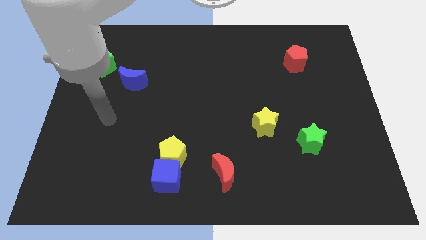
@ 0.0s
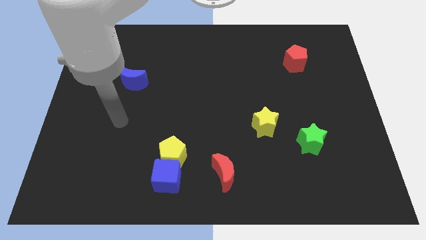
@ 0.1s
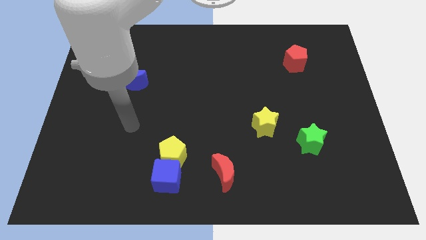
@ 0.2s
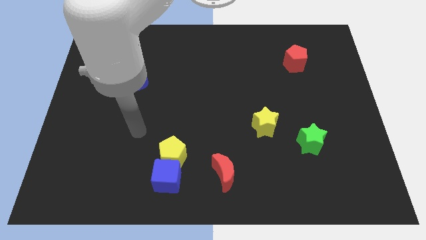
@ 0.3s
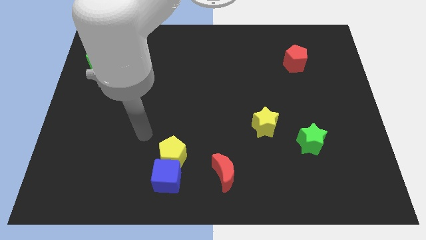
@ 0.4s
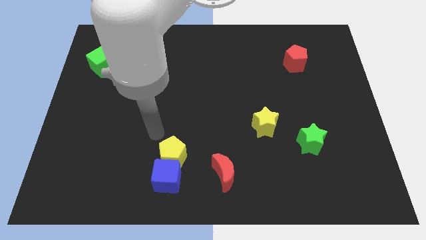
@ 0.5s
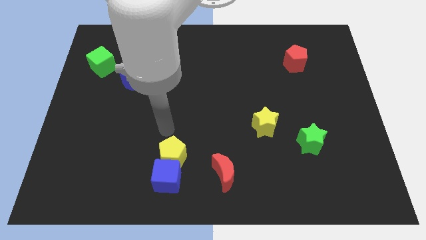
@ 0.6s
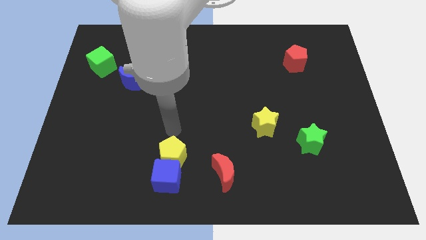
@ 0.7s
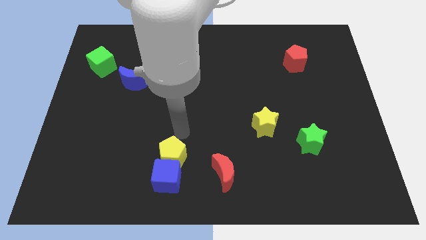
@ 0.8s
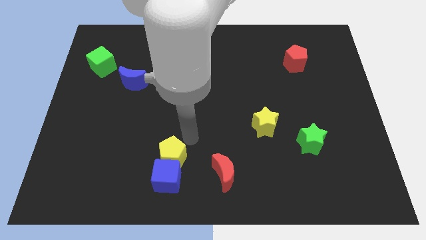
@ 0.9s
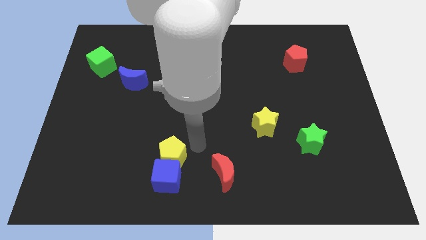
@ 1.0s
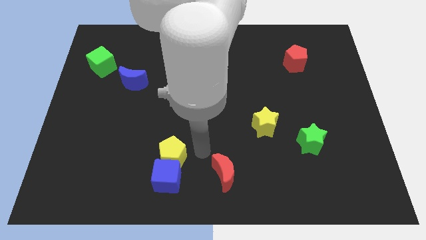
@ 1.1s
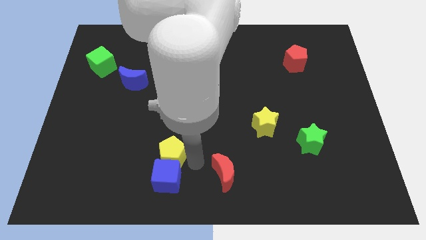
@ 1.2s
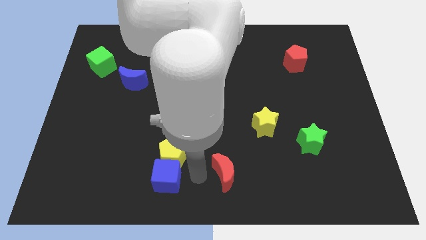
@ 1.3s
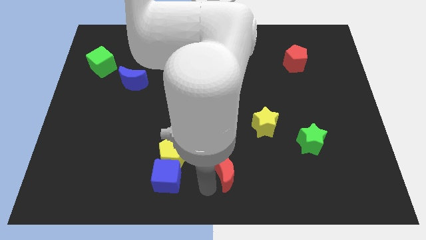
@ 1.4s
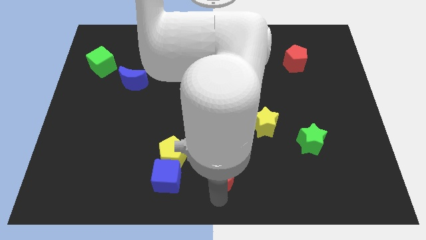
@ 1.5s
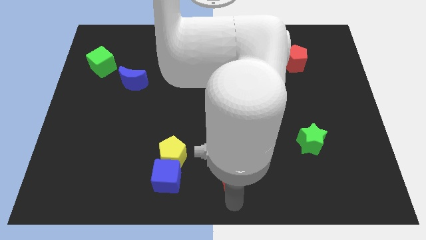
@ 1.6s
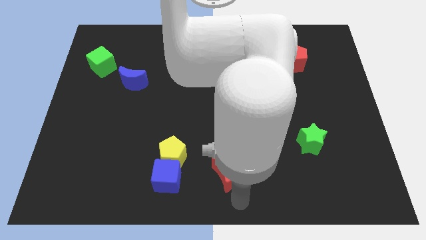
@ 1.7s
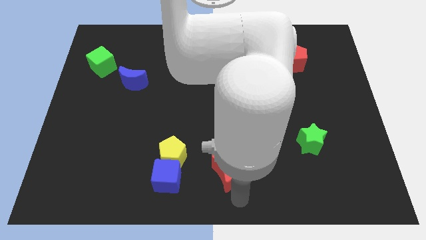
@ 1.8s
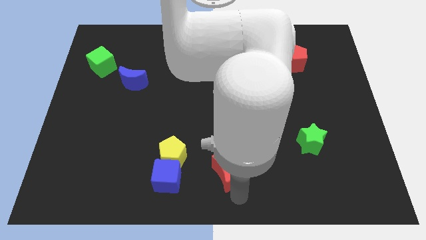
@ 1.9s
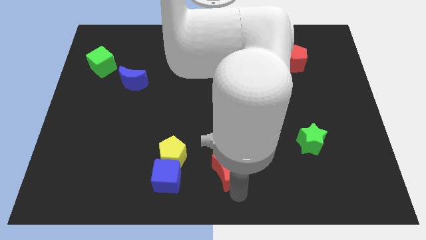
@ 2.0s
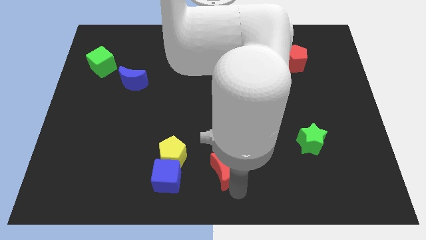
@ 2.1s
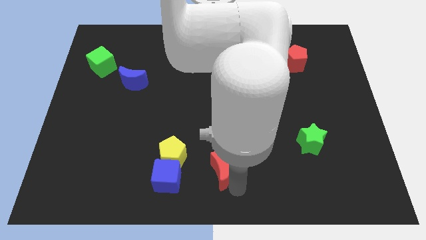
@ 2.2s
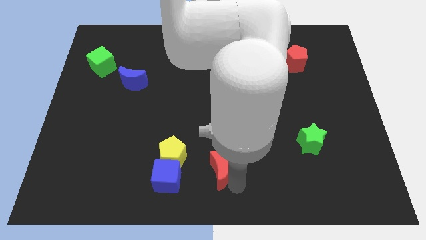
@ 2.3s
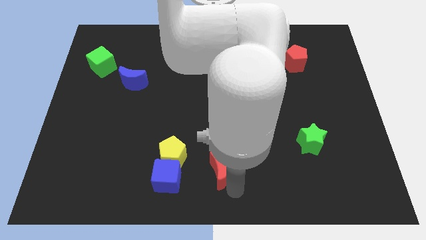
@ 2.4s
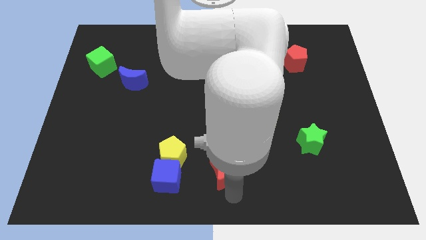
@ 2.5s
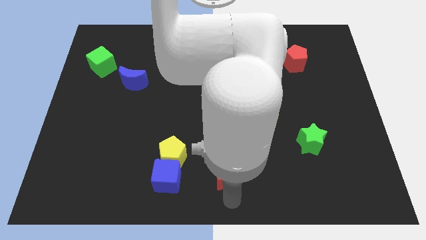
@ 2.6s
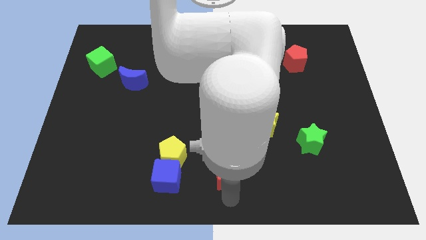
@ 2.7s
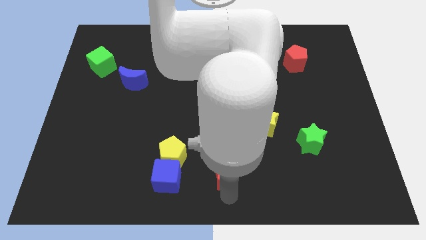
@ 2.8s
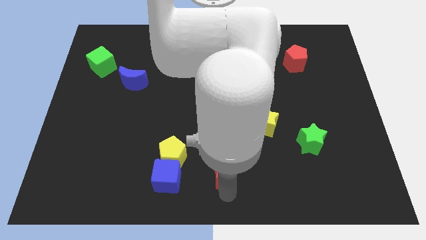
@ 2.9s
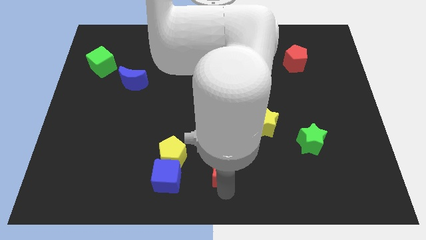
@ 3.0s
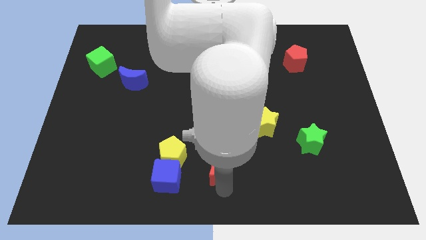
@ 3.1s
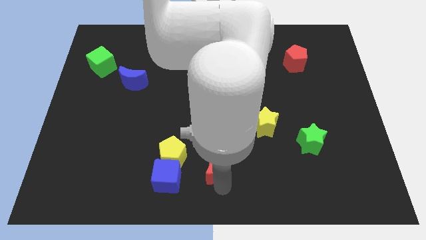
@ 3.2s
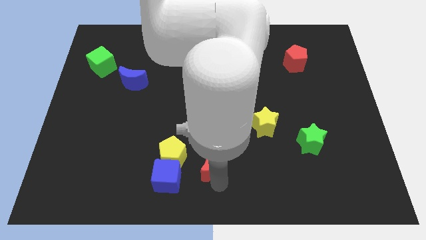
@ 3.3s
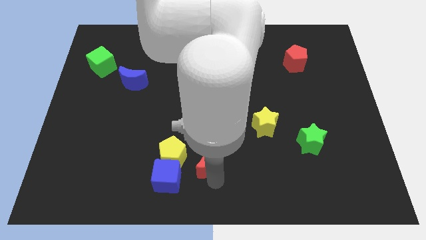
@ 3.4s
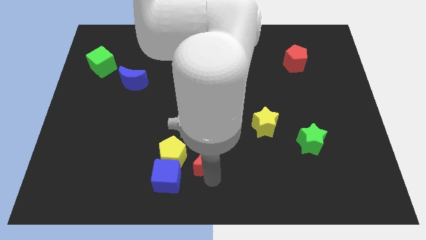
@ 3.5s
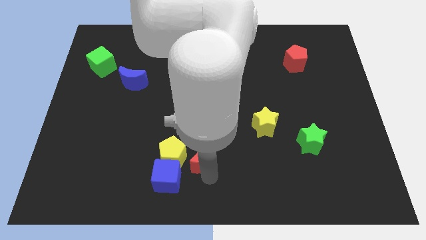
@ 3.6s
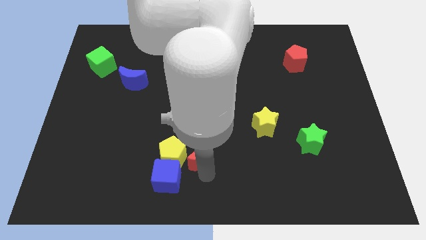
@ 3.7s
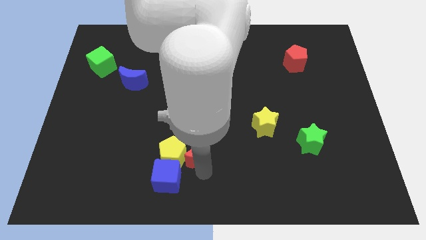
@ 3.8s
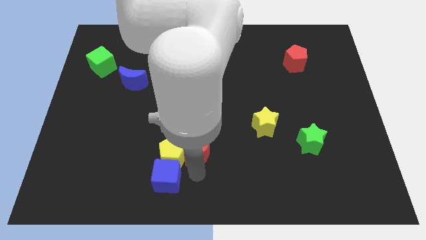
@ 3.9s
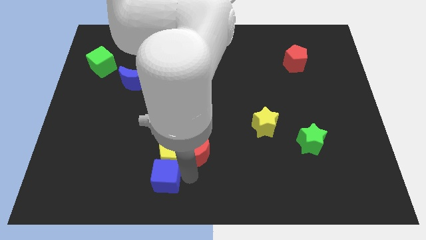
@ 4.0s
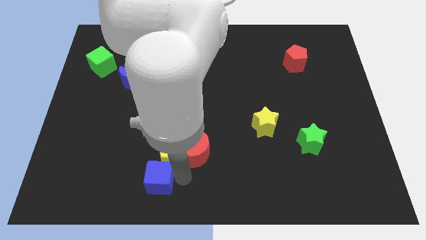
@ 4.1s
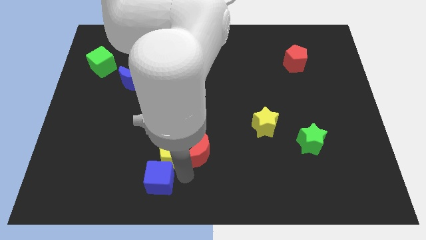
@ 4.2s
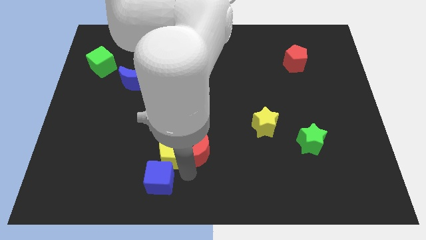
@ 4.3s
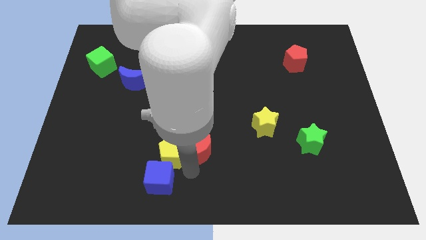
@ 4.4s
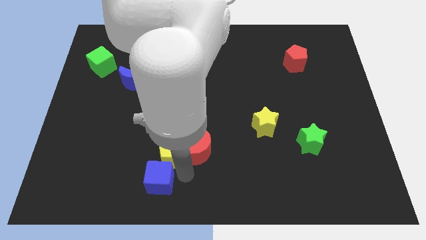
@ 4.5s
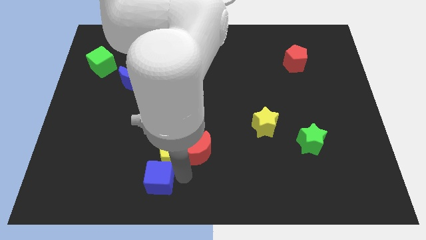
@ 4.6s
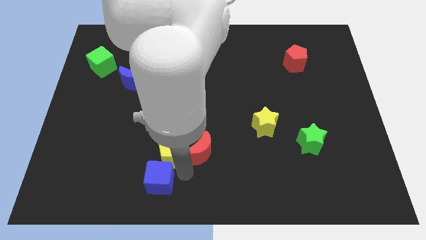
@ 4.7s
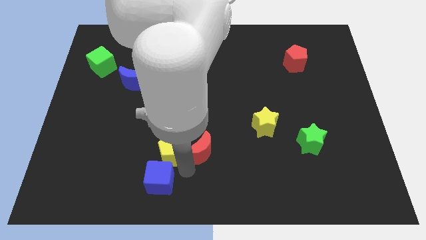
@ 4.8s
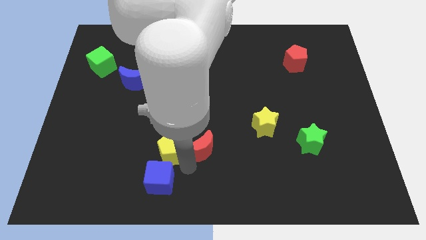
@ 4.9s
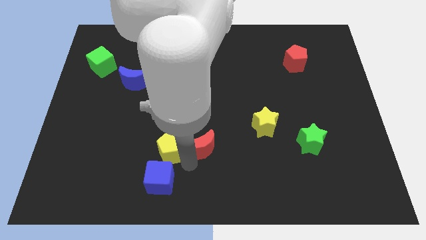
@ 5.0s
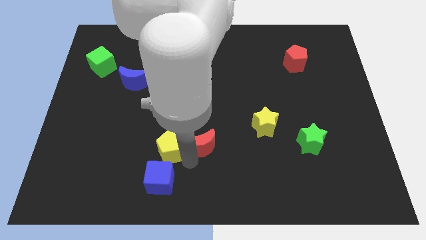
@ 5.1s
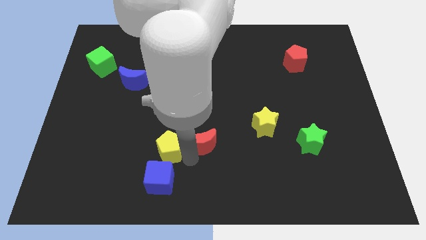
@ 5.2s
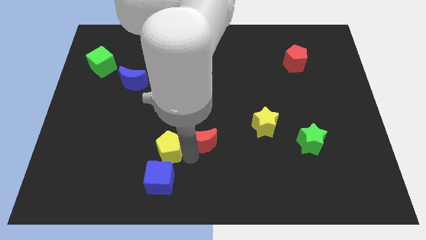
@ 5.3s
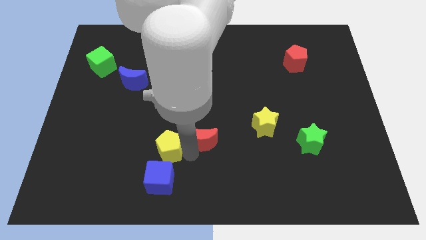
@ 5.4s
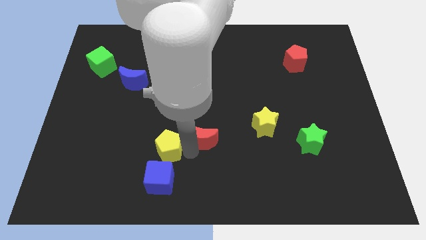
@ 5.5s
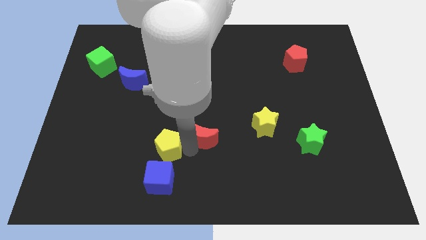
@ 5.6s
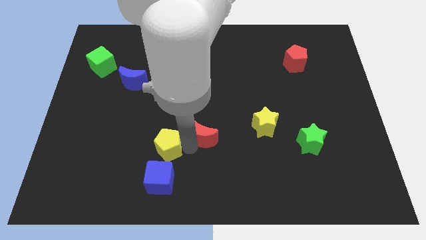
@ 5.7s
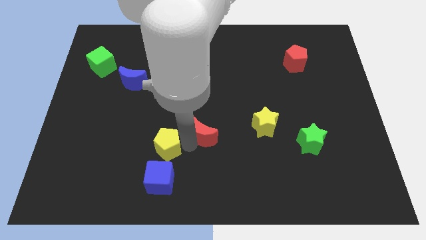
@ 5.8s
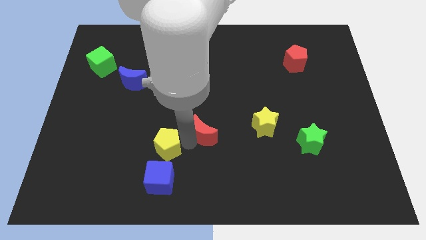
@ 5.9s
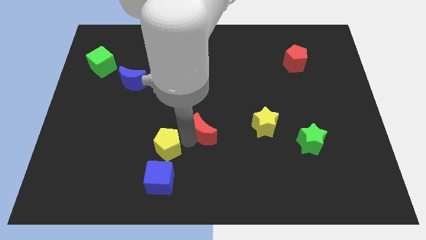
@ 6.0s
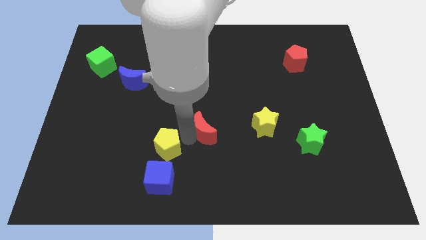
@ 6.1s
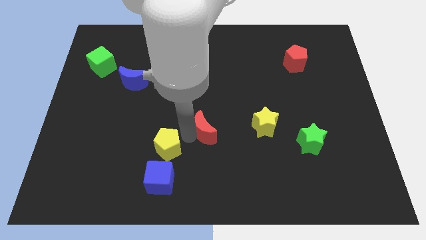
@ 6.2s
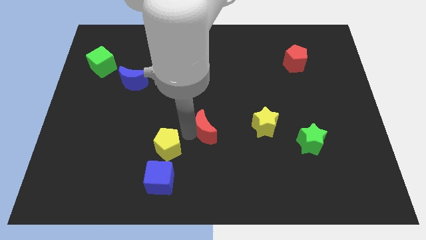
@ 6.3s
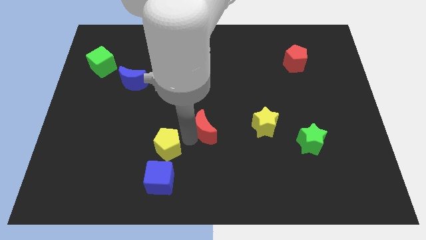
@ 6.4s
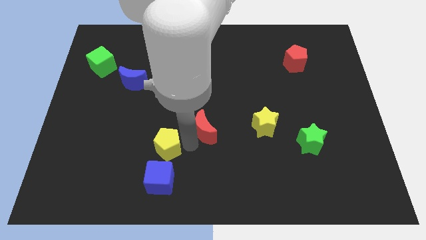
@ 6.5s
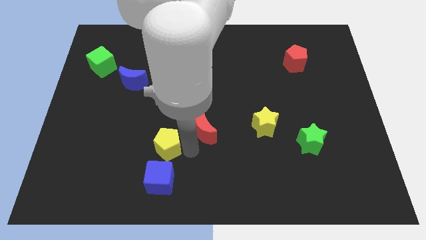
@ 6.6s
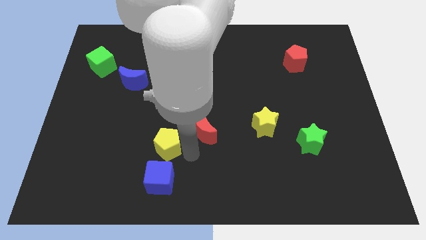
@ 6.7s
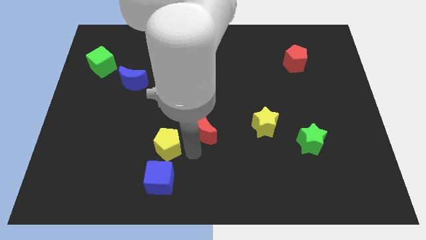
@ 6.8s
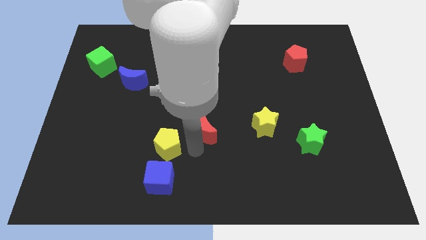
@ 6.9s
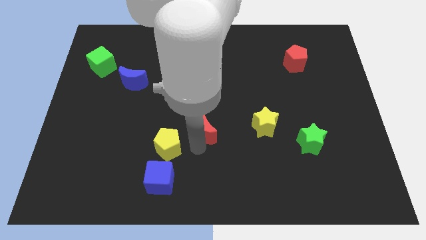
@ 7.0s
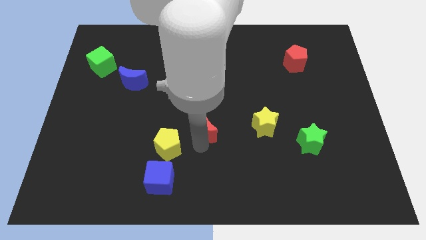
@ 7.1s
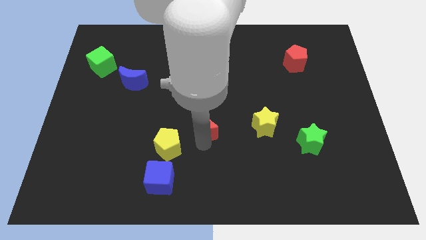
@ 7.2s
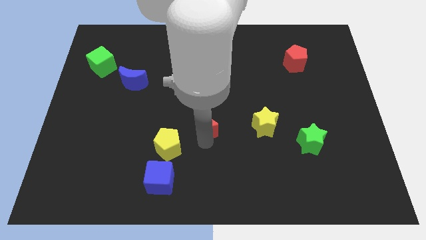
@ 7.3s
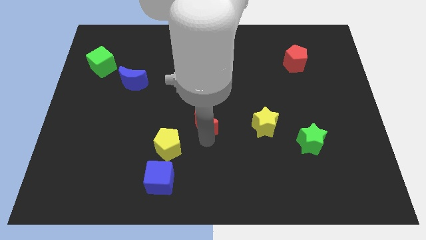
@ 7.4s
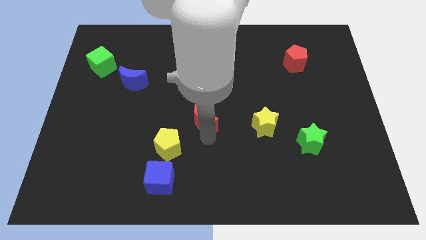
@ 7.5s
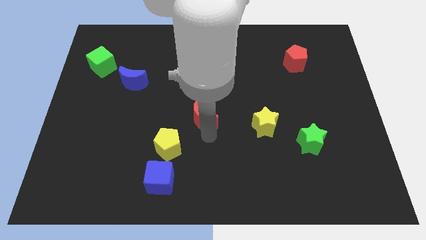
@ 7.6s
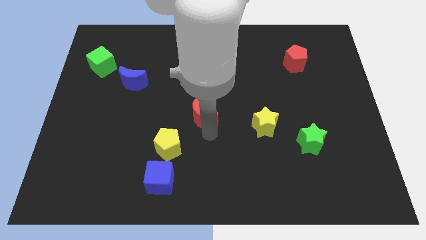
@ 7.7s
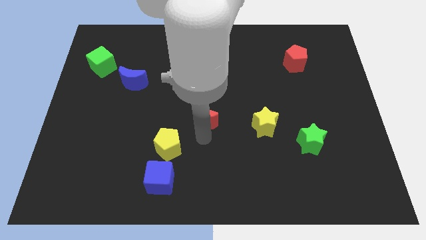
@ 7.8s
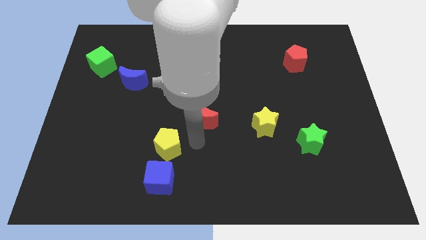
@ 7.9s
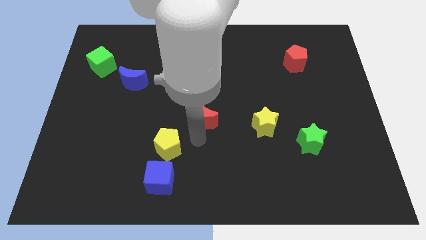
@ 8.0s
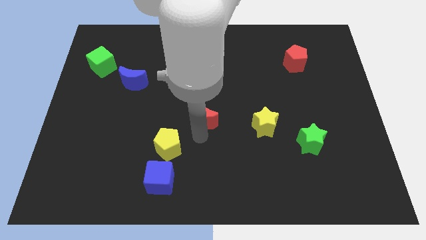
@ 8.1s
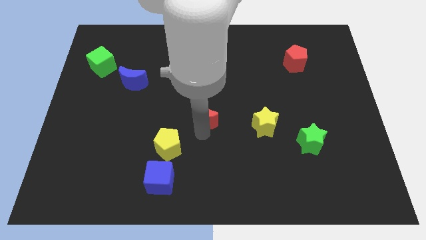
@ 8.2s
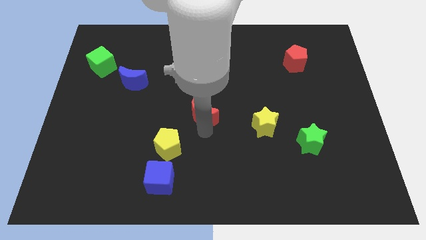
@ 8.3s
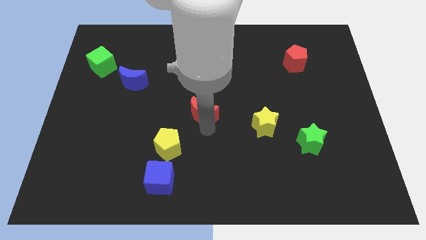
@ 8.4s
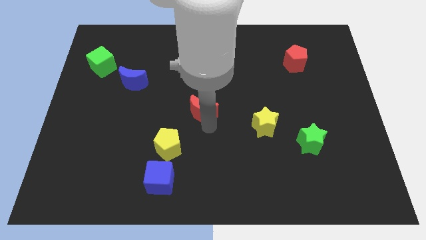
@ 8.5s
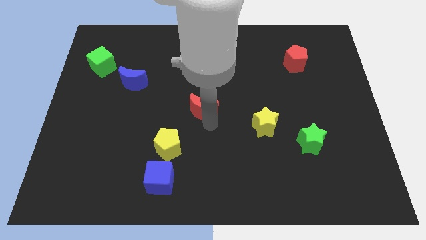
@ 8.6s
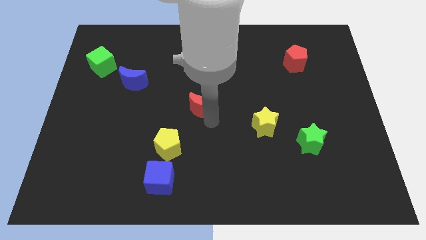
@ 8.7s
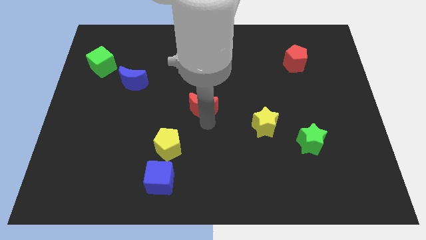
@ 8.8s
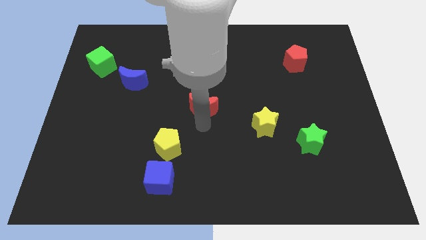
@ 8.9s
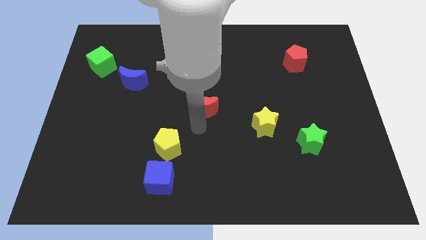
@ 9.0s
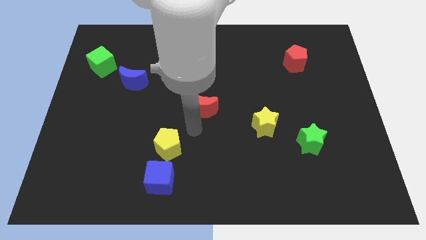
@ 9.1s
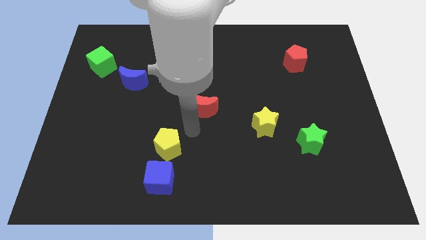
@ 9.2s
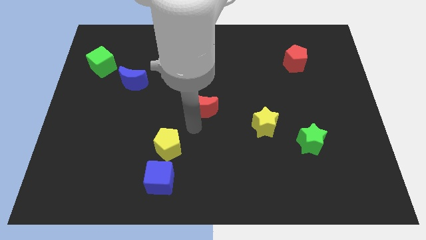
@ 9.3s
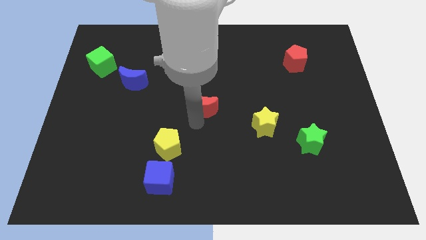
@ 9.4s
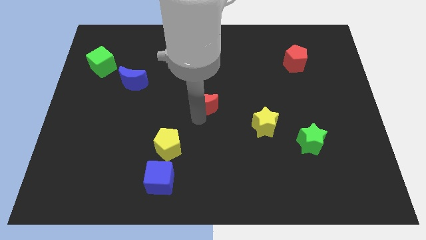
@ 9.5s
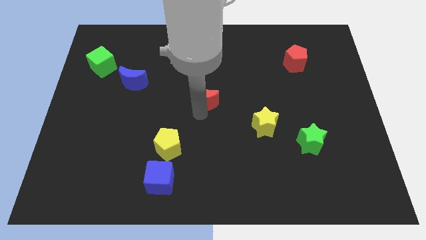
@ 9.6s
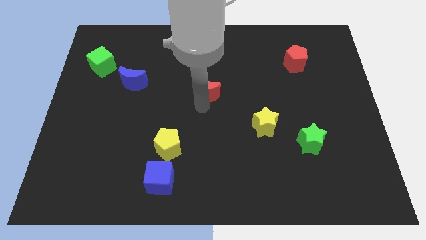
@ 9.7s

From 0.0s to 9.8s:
move the red moon upwards
